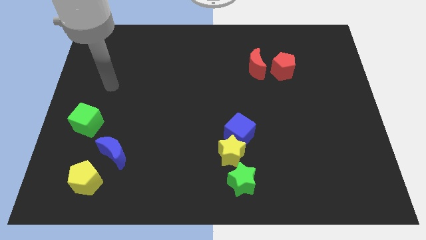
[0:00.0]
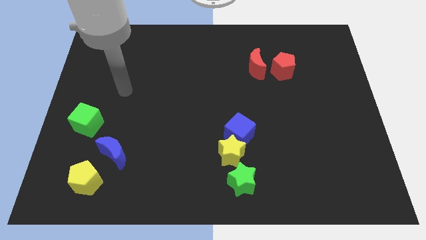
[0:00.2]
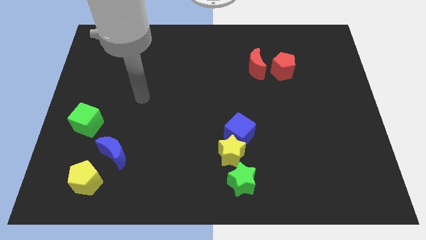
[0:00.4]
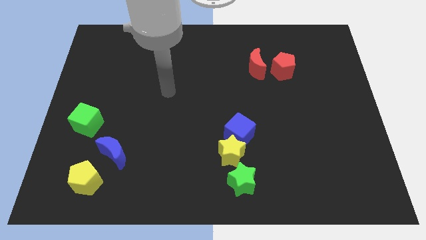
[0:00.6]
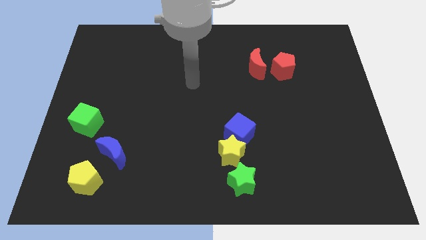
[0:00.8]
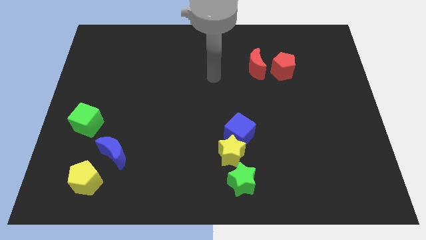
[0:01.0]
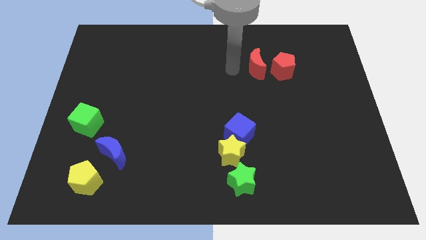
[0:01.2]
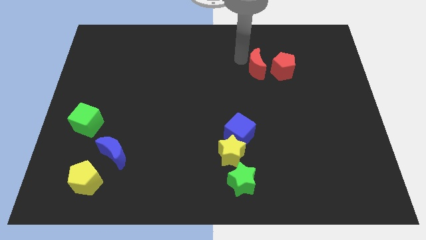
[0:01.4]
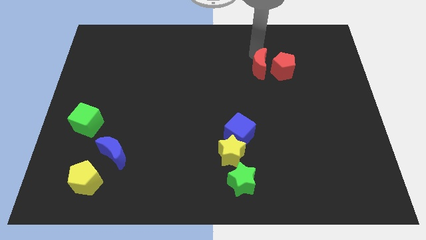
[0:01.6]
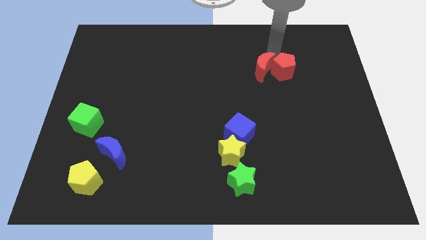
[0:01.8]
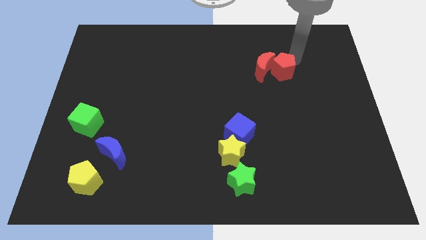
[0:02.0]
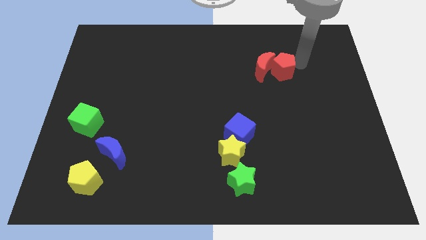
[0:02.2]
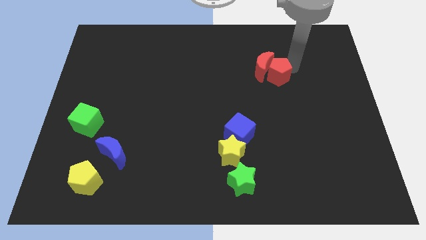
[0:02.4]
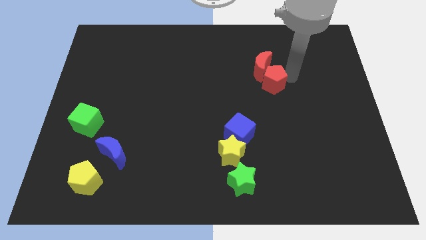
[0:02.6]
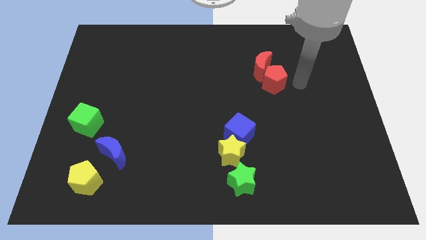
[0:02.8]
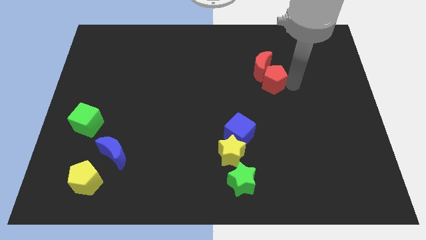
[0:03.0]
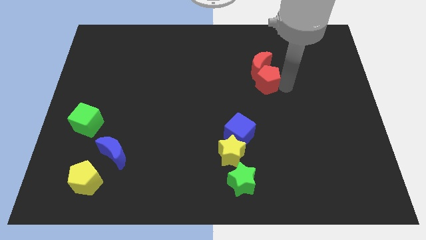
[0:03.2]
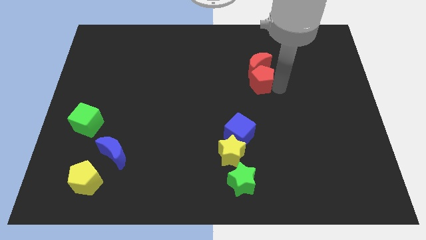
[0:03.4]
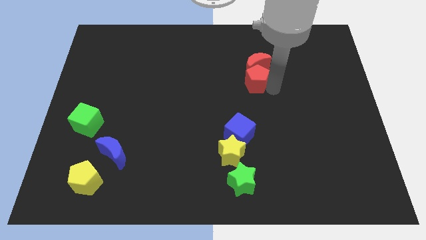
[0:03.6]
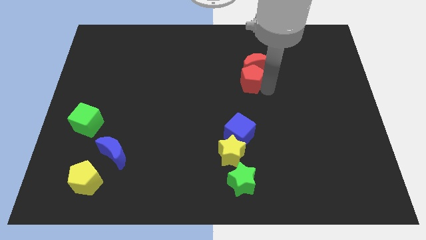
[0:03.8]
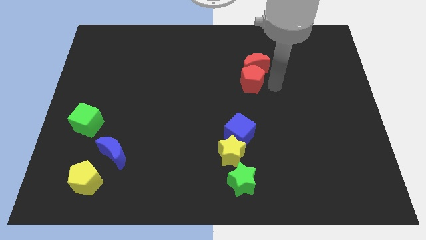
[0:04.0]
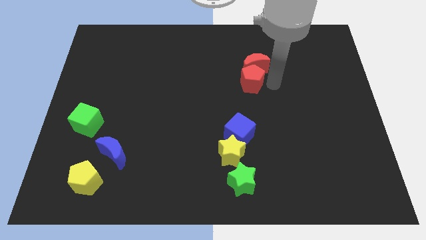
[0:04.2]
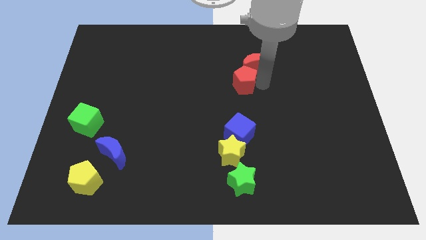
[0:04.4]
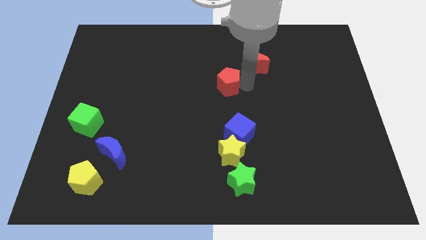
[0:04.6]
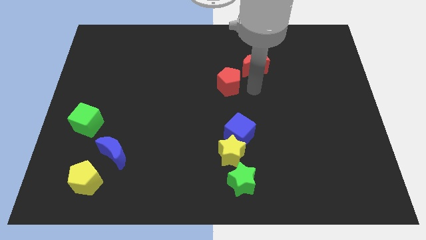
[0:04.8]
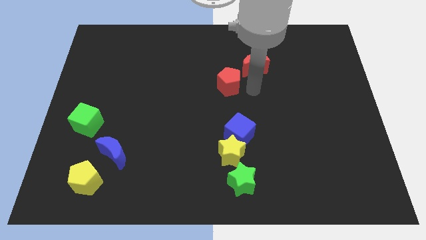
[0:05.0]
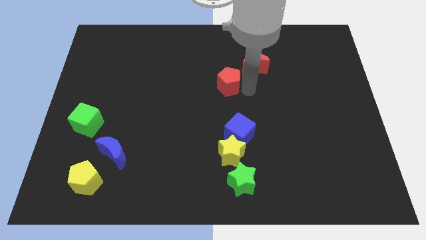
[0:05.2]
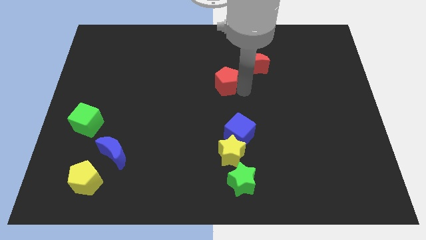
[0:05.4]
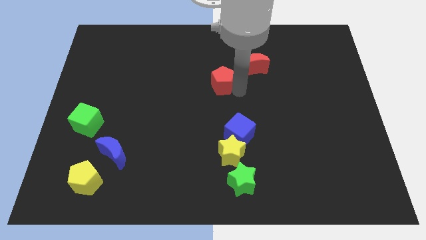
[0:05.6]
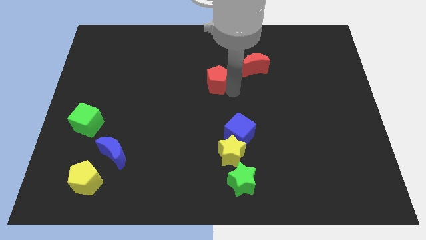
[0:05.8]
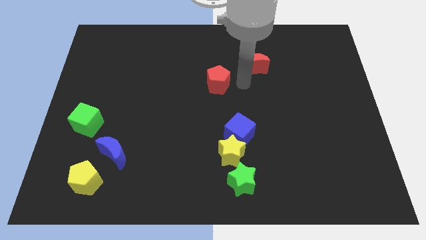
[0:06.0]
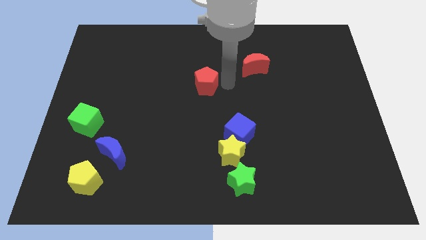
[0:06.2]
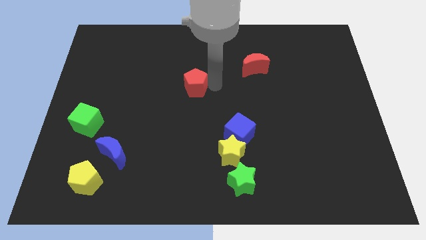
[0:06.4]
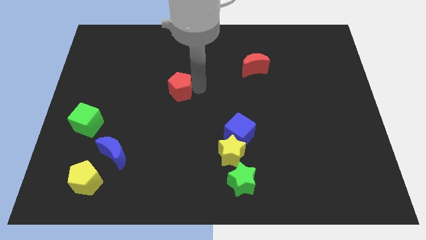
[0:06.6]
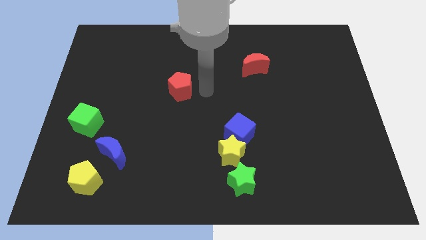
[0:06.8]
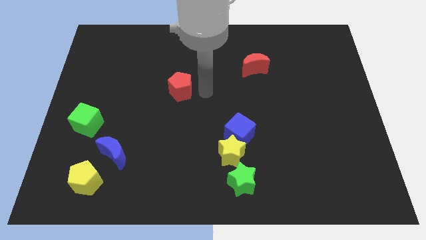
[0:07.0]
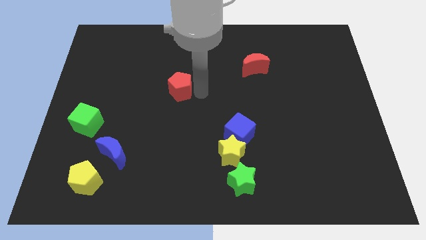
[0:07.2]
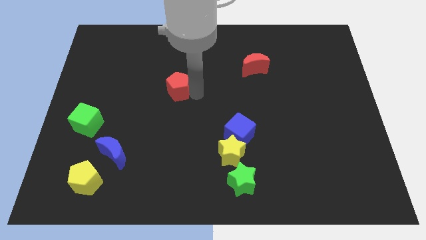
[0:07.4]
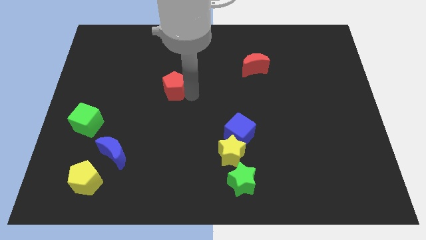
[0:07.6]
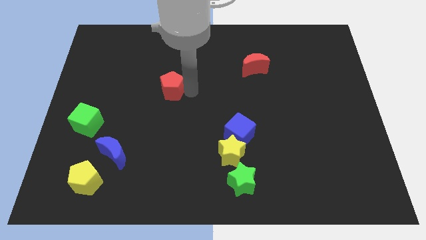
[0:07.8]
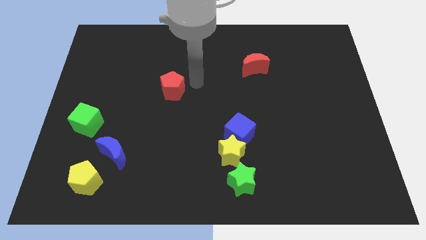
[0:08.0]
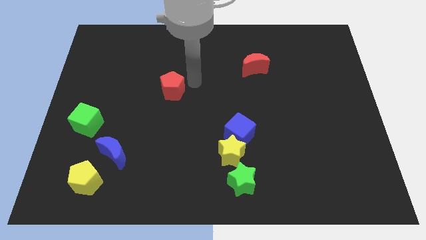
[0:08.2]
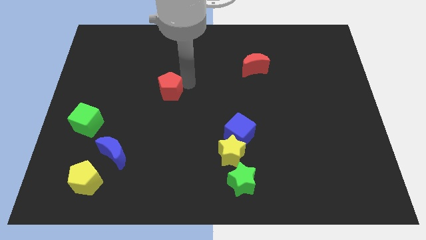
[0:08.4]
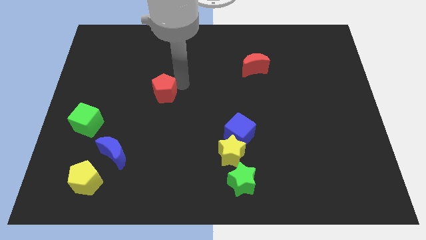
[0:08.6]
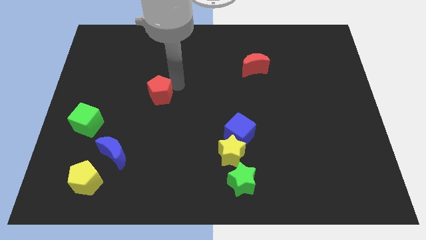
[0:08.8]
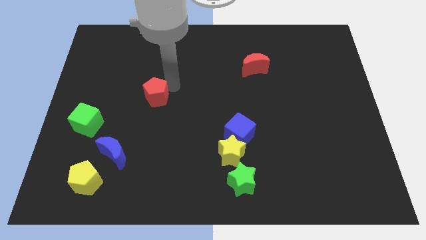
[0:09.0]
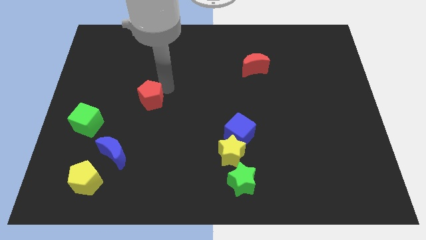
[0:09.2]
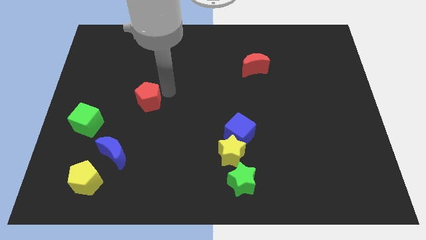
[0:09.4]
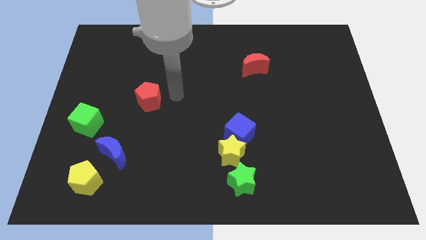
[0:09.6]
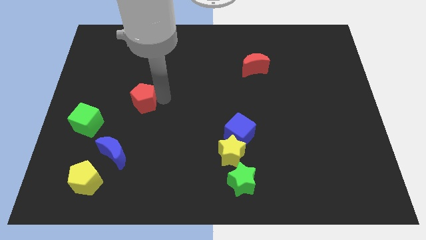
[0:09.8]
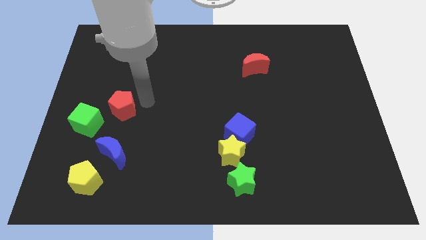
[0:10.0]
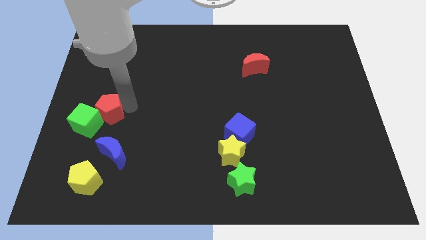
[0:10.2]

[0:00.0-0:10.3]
move the red pentagon next to the green cube

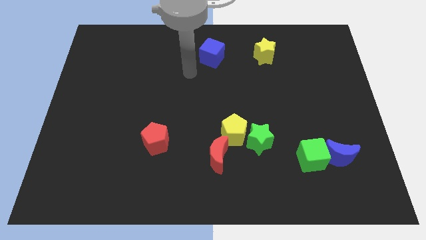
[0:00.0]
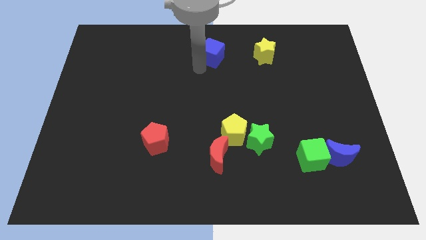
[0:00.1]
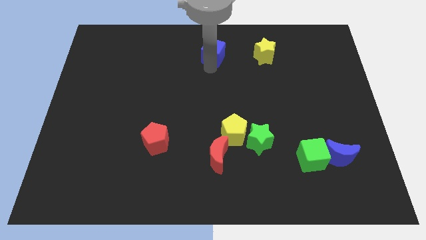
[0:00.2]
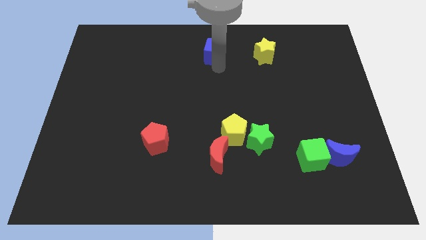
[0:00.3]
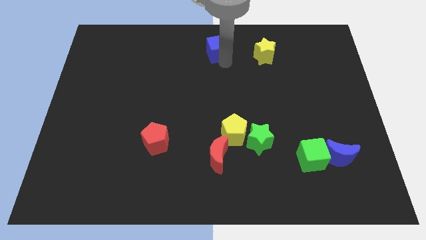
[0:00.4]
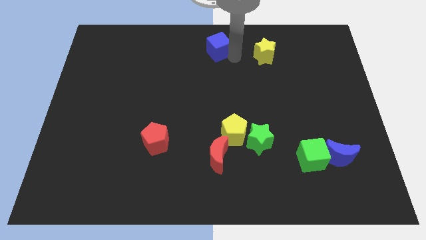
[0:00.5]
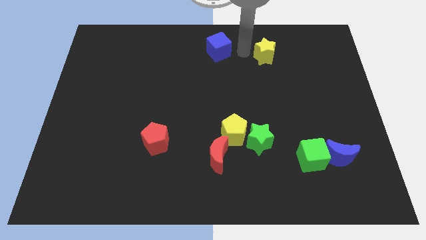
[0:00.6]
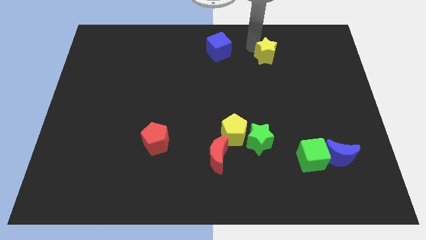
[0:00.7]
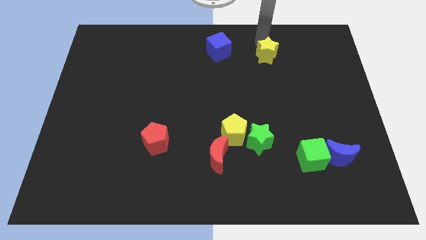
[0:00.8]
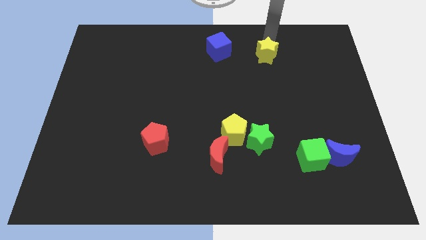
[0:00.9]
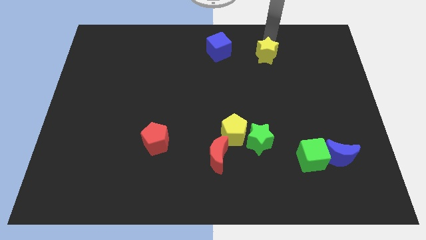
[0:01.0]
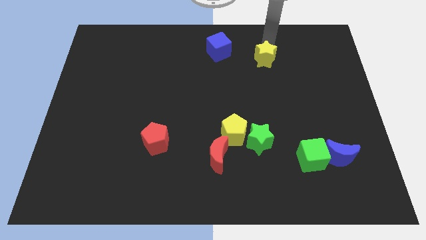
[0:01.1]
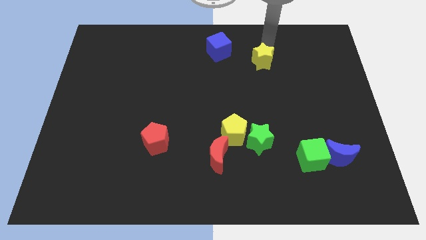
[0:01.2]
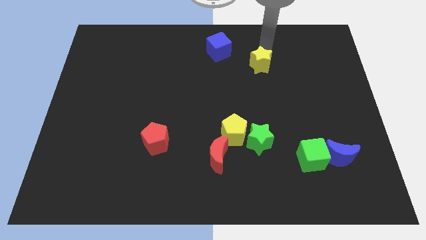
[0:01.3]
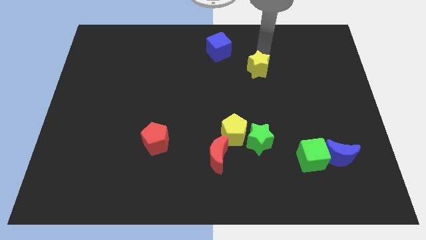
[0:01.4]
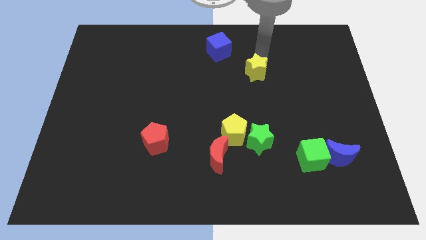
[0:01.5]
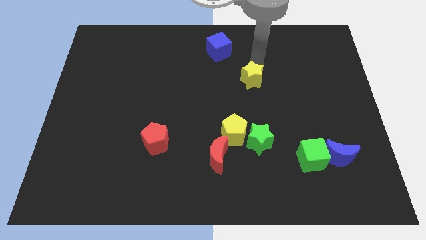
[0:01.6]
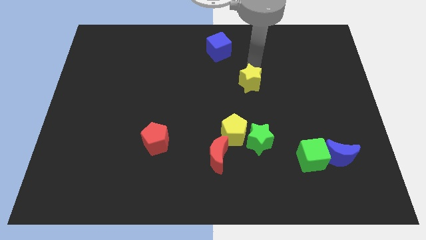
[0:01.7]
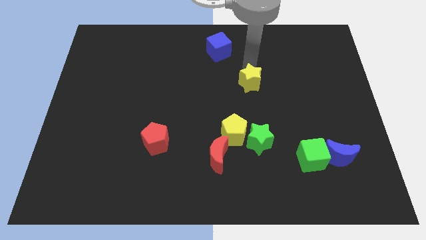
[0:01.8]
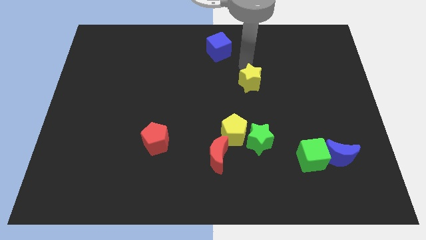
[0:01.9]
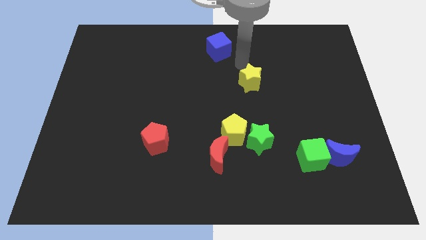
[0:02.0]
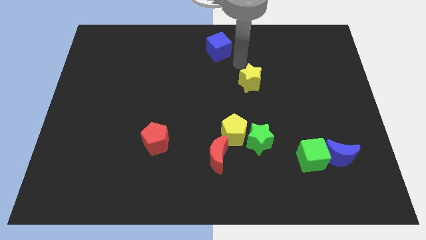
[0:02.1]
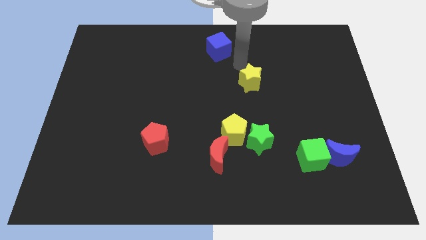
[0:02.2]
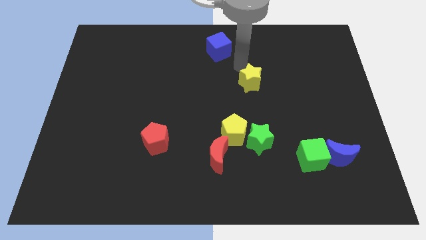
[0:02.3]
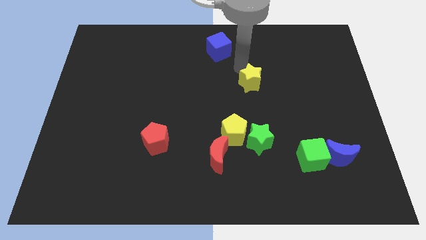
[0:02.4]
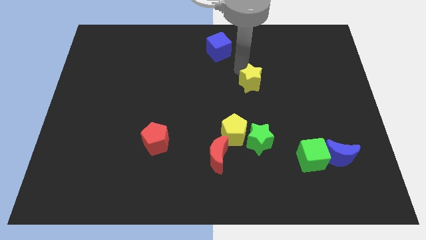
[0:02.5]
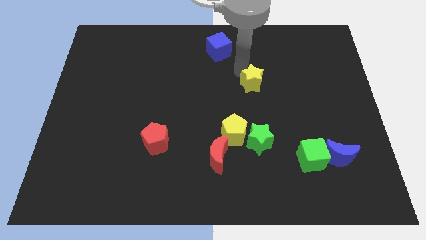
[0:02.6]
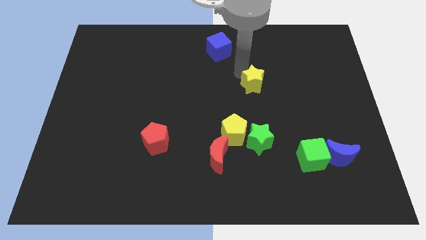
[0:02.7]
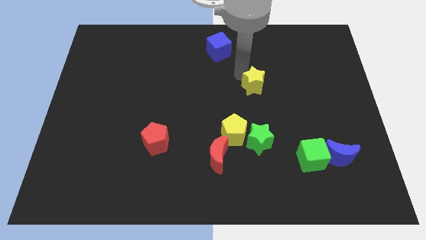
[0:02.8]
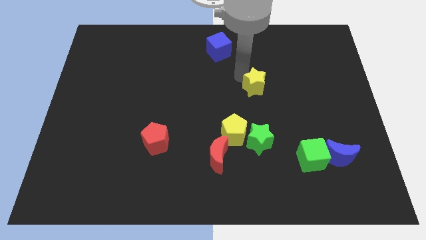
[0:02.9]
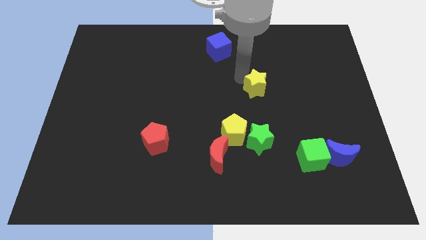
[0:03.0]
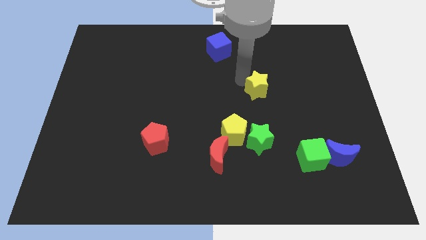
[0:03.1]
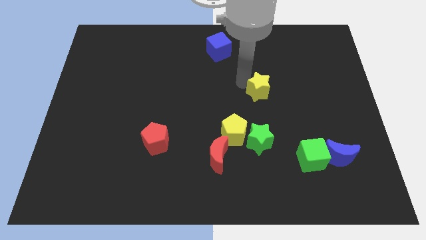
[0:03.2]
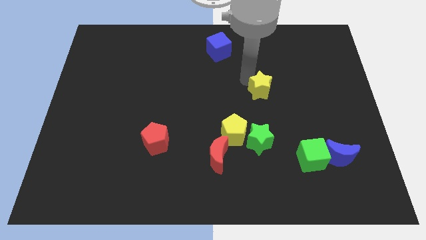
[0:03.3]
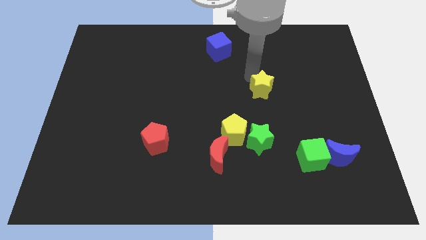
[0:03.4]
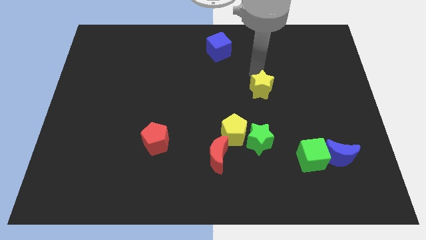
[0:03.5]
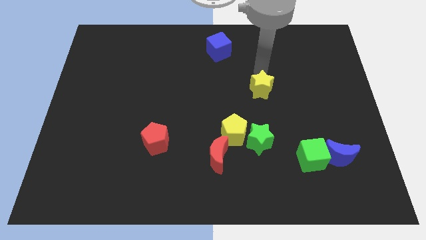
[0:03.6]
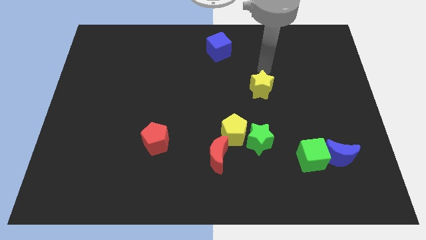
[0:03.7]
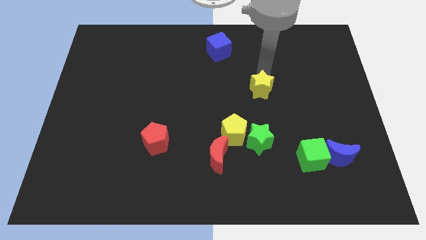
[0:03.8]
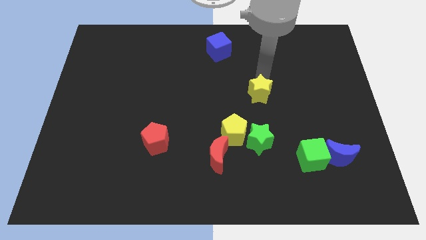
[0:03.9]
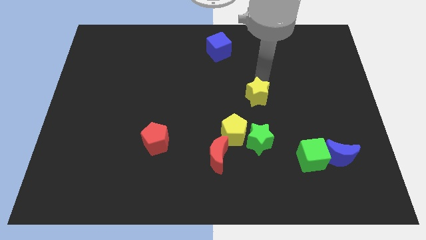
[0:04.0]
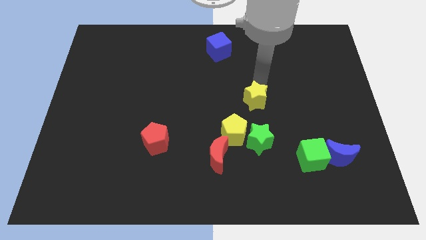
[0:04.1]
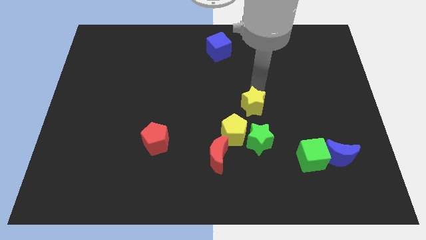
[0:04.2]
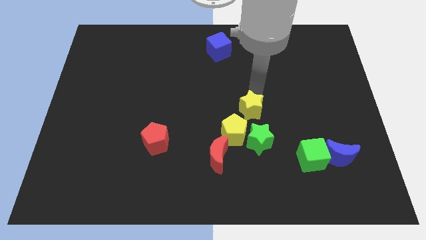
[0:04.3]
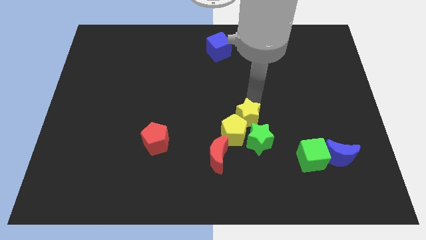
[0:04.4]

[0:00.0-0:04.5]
slide the yellow star to the yellow pentagon
